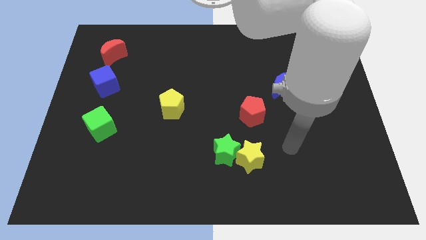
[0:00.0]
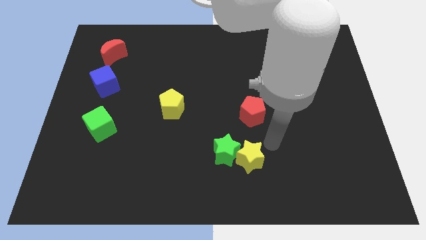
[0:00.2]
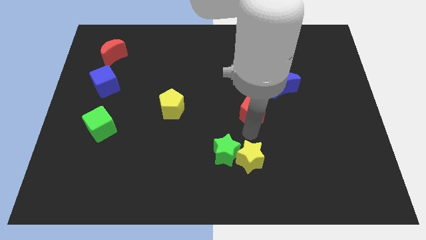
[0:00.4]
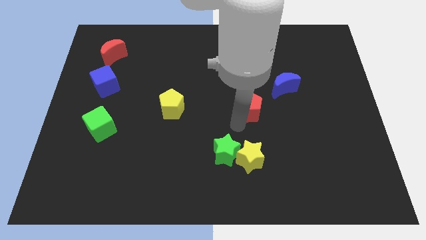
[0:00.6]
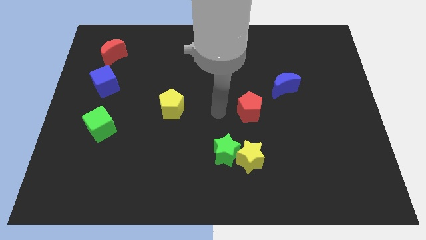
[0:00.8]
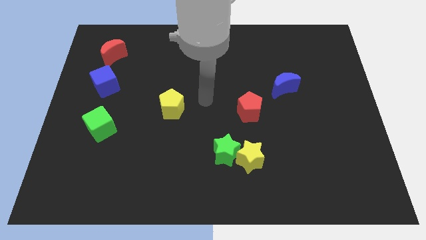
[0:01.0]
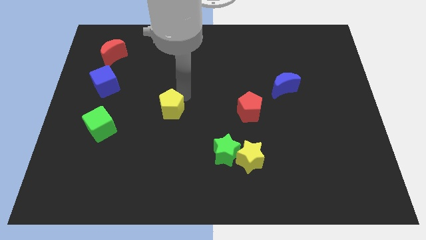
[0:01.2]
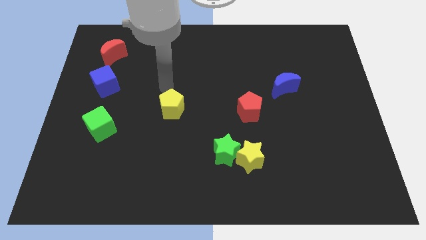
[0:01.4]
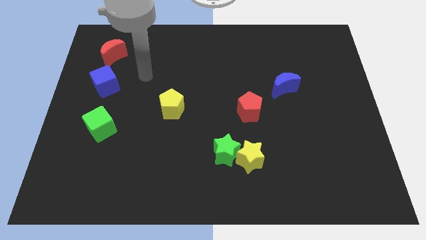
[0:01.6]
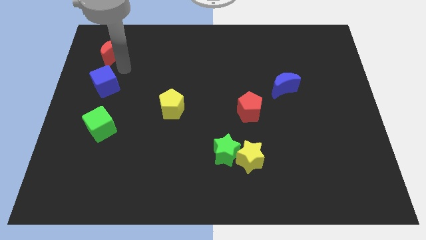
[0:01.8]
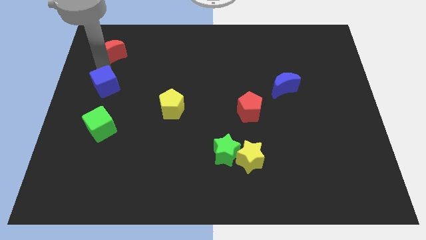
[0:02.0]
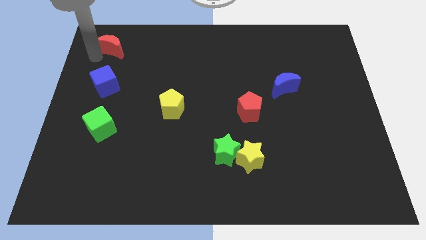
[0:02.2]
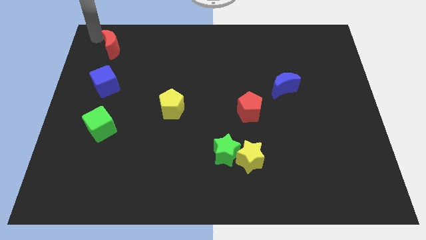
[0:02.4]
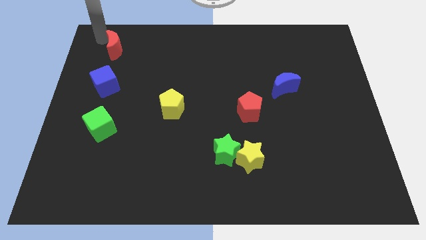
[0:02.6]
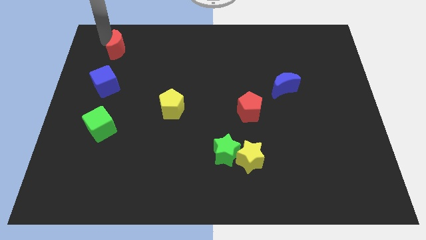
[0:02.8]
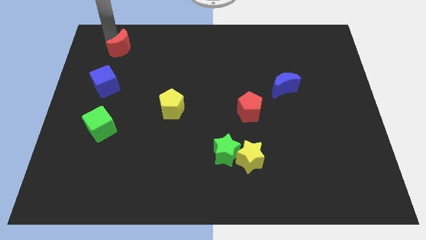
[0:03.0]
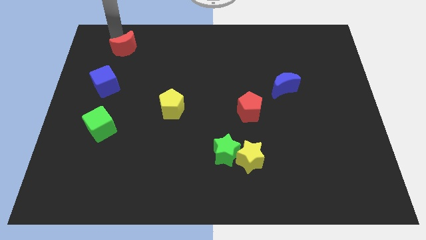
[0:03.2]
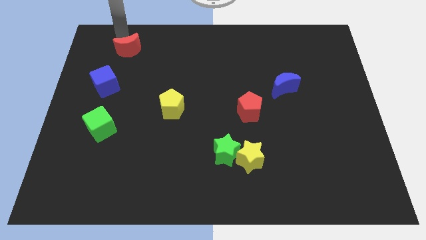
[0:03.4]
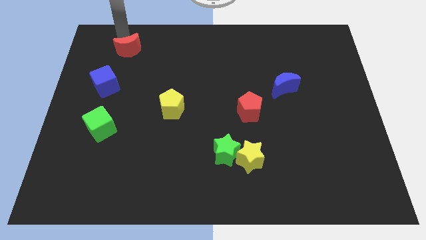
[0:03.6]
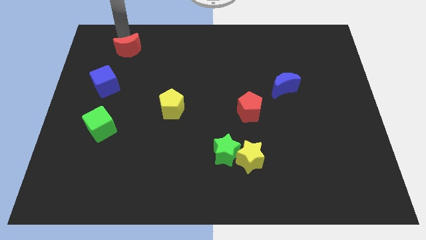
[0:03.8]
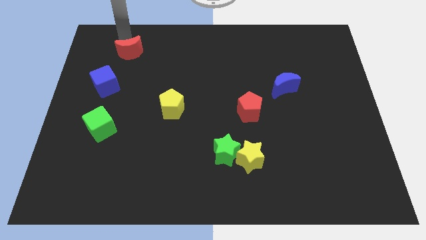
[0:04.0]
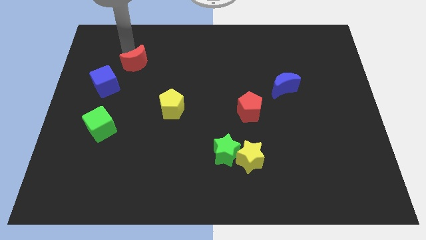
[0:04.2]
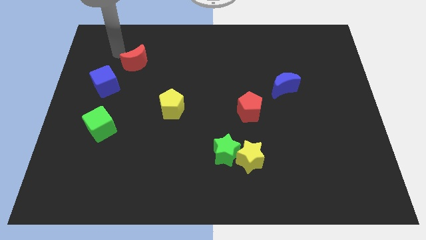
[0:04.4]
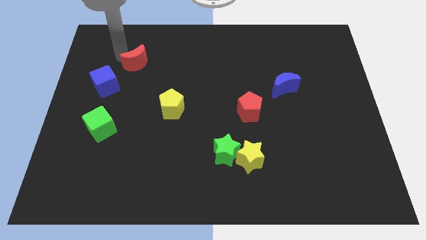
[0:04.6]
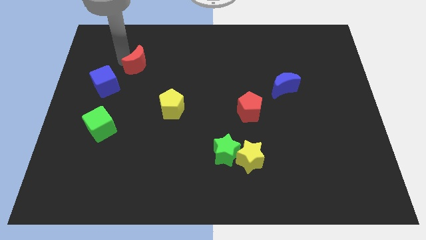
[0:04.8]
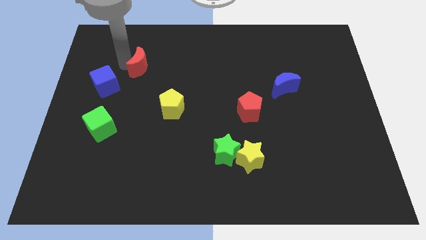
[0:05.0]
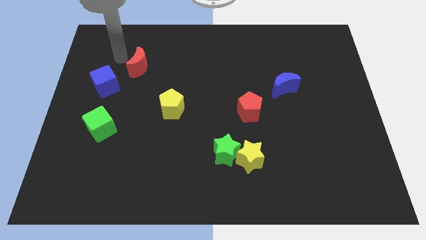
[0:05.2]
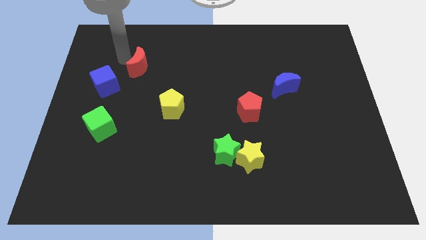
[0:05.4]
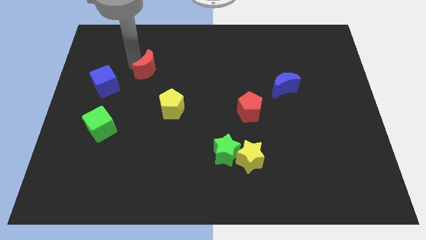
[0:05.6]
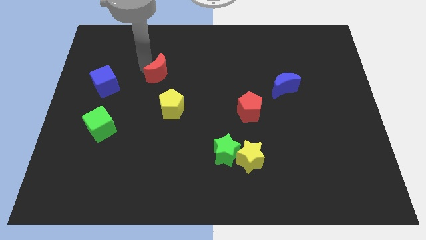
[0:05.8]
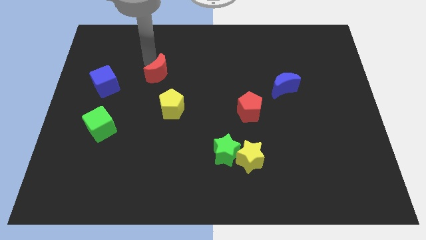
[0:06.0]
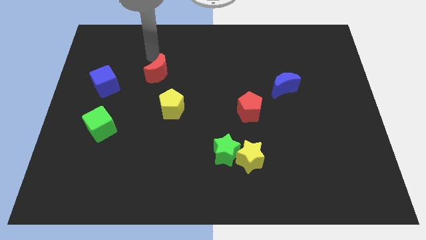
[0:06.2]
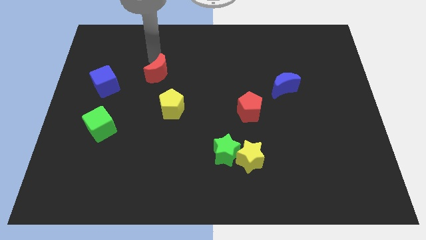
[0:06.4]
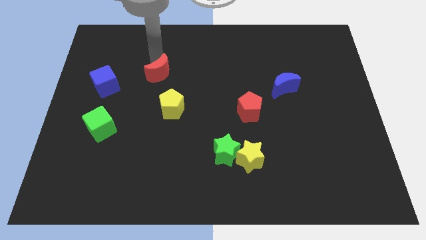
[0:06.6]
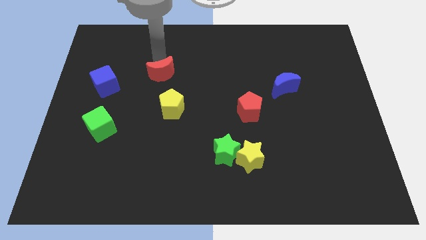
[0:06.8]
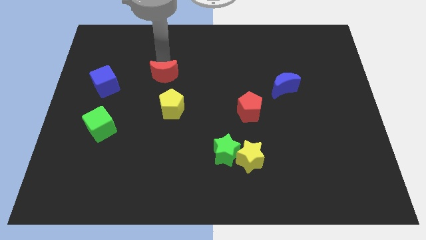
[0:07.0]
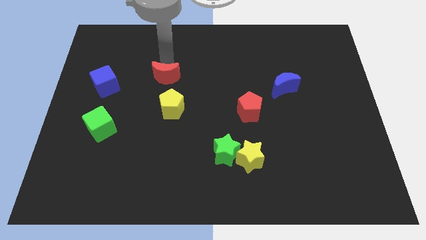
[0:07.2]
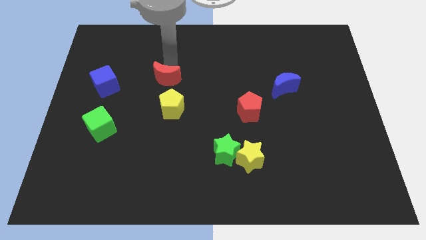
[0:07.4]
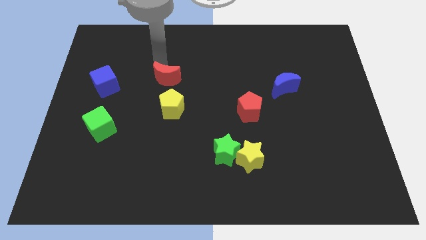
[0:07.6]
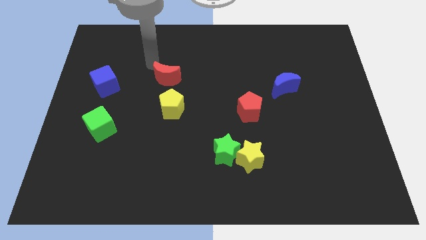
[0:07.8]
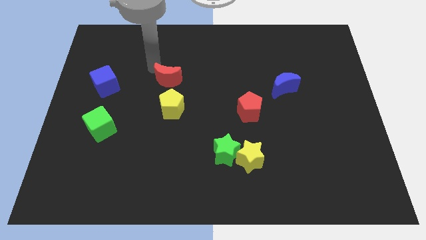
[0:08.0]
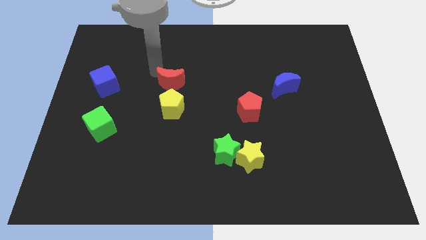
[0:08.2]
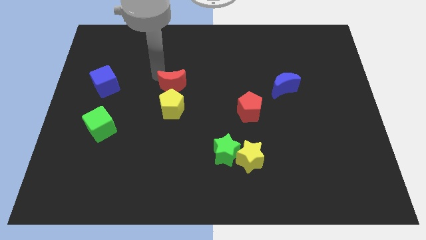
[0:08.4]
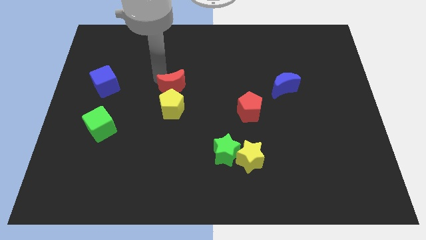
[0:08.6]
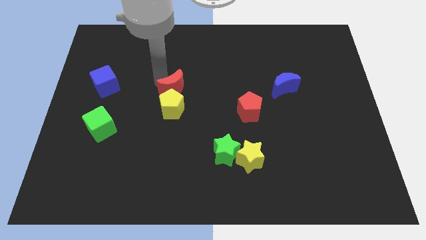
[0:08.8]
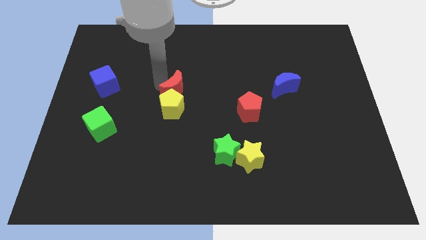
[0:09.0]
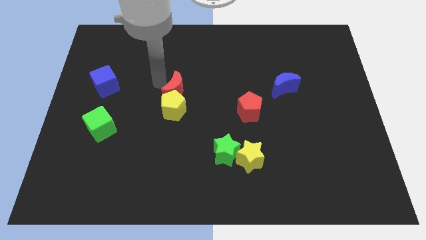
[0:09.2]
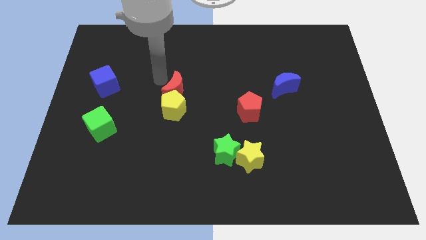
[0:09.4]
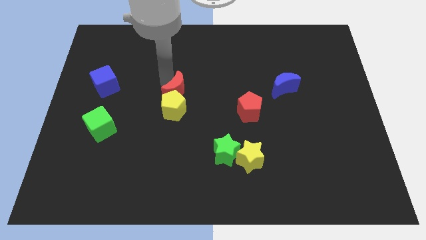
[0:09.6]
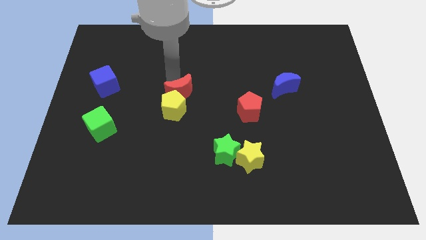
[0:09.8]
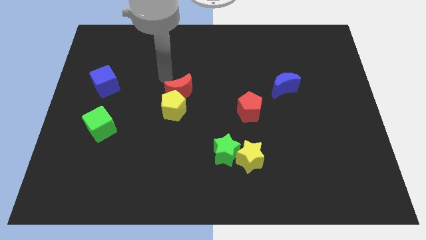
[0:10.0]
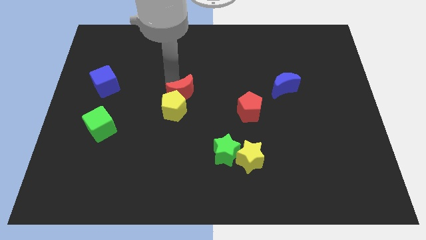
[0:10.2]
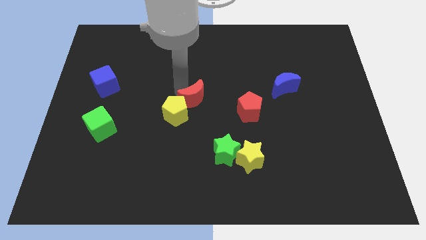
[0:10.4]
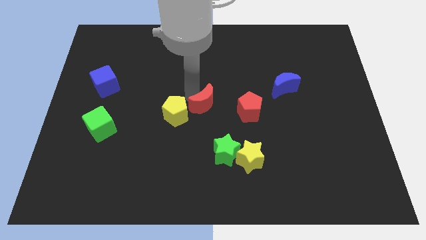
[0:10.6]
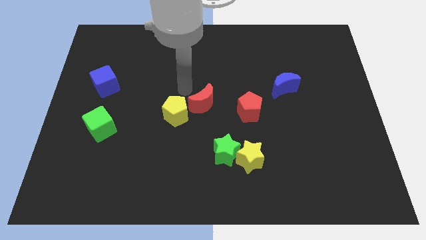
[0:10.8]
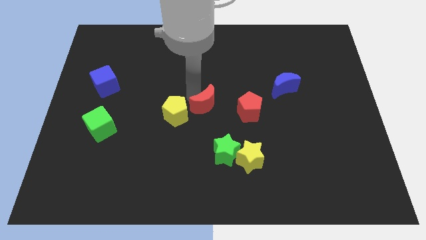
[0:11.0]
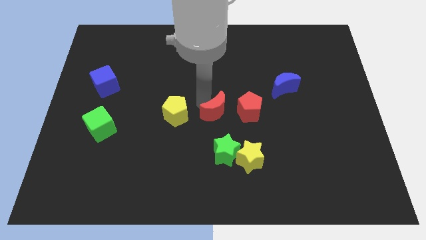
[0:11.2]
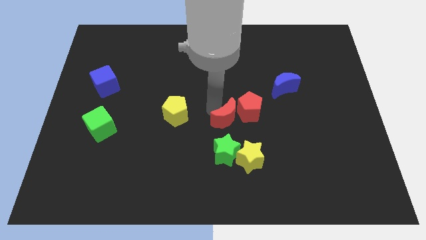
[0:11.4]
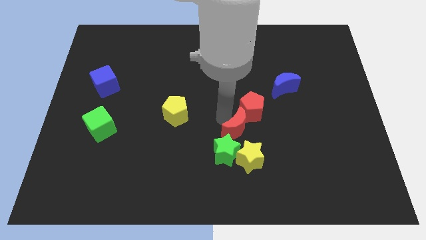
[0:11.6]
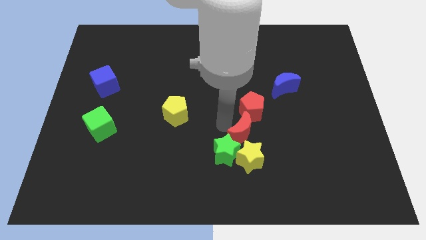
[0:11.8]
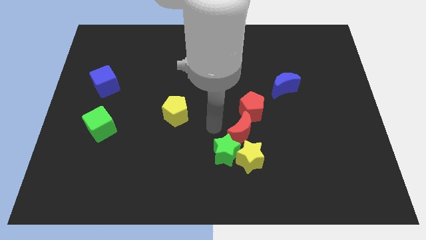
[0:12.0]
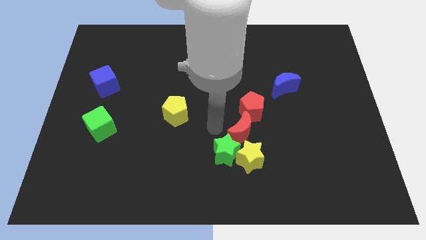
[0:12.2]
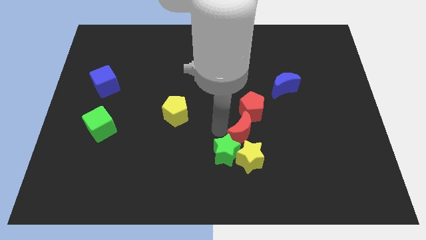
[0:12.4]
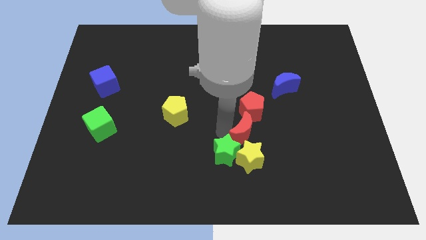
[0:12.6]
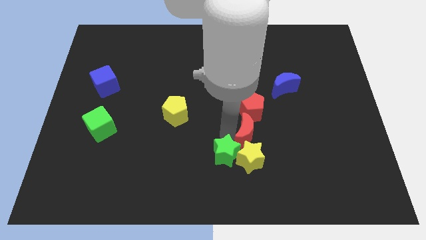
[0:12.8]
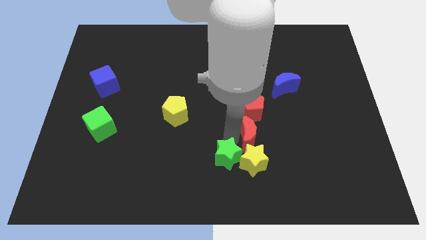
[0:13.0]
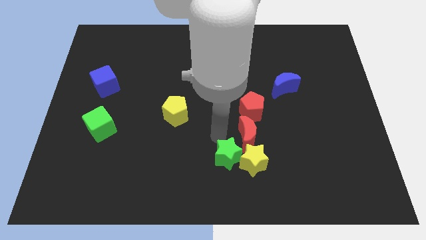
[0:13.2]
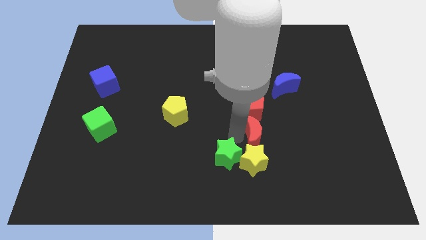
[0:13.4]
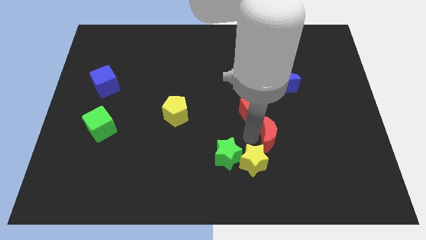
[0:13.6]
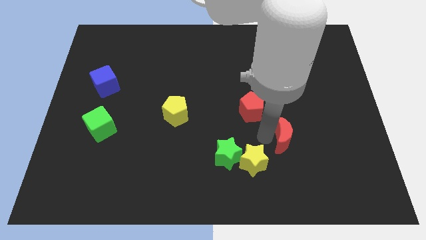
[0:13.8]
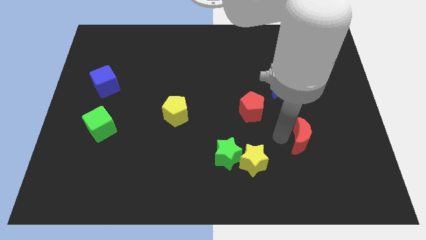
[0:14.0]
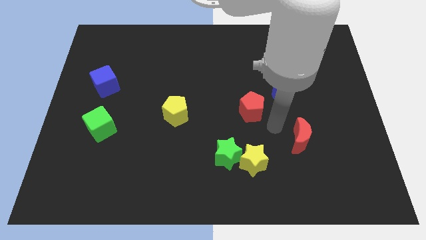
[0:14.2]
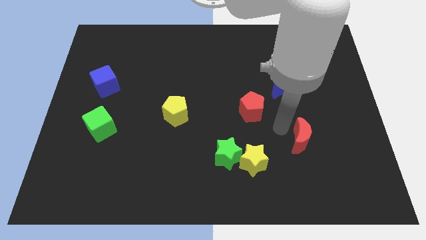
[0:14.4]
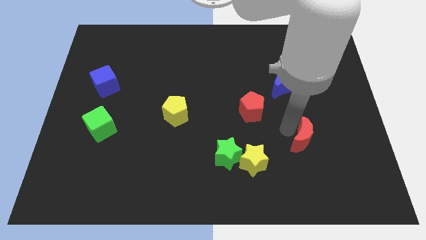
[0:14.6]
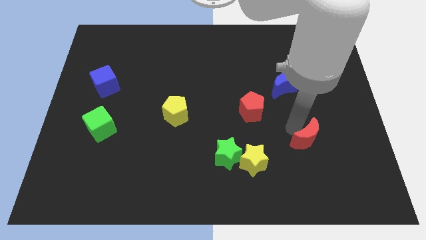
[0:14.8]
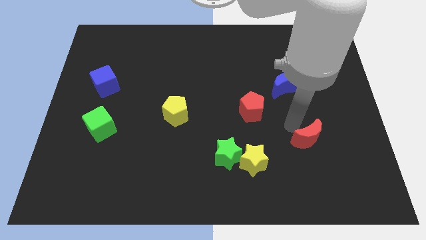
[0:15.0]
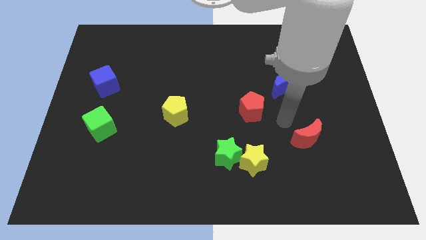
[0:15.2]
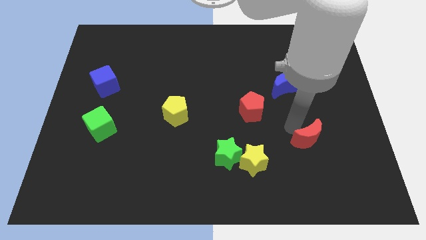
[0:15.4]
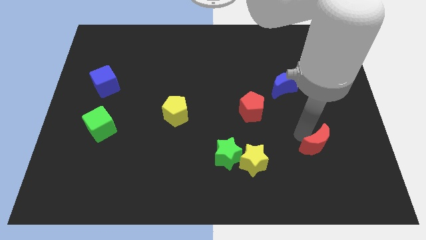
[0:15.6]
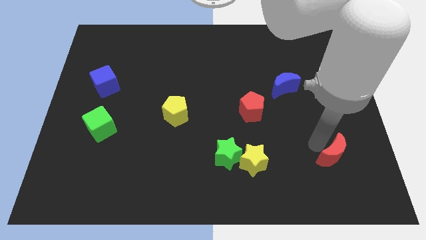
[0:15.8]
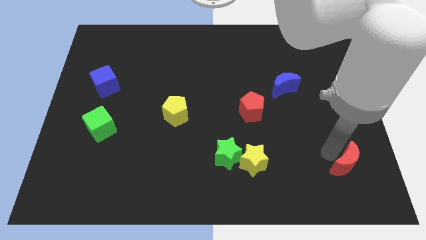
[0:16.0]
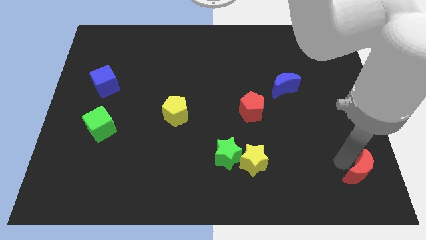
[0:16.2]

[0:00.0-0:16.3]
move the red moon to the bottom right corner
